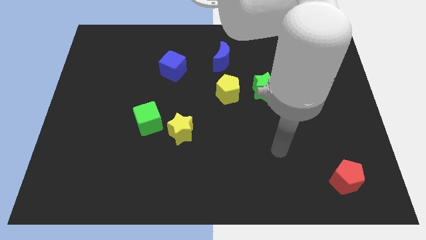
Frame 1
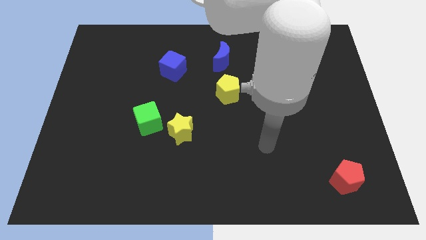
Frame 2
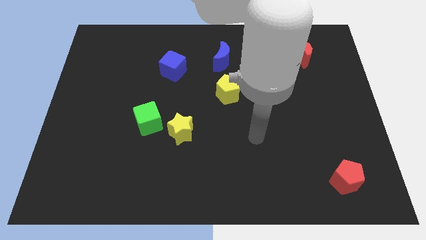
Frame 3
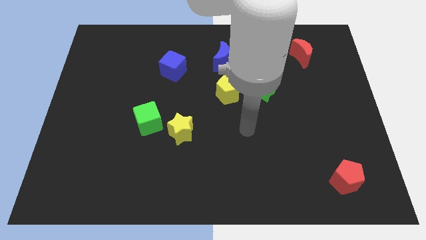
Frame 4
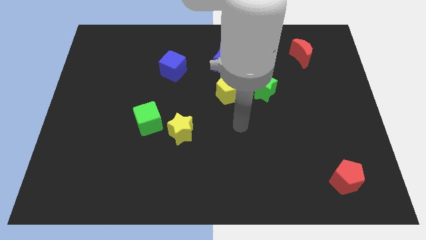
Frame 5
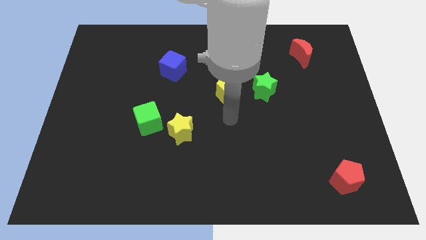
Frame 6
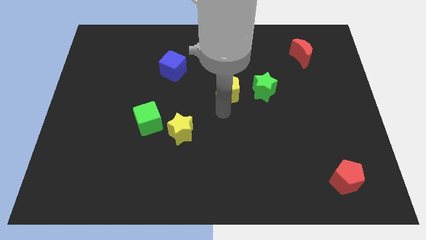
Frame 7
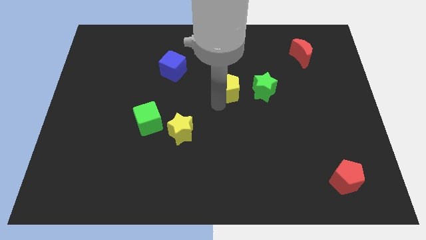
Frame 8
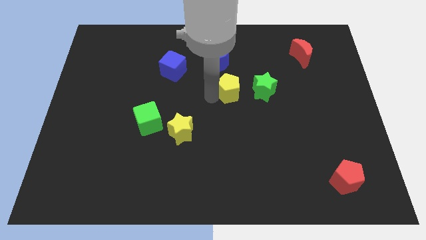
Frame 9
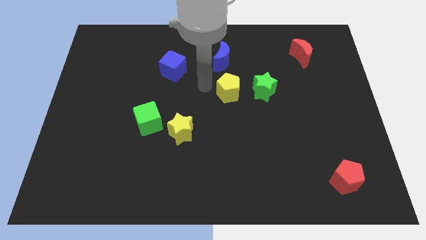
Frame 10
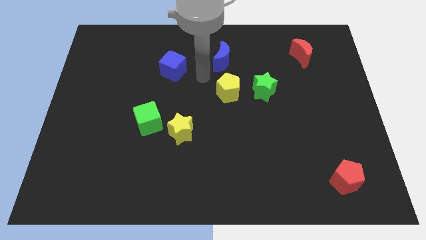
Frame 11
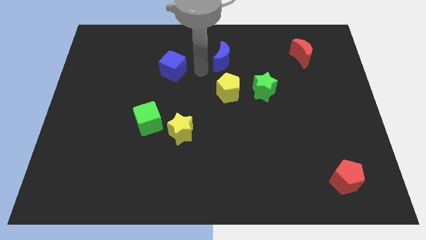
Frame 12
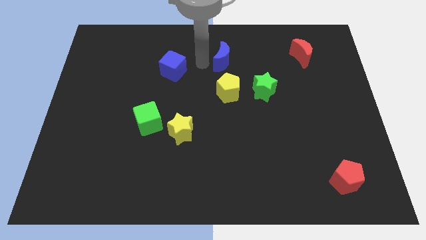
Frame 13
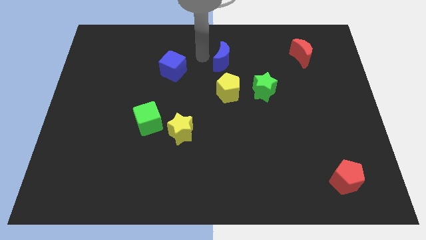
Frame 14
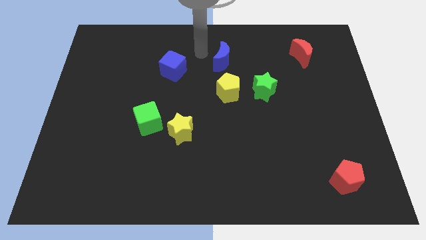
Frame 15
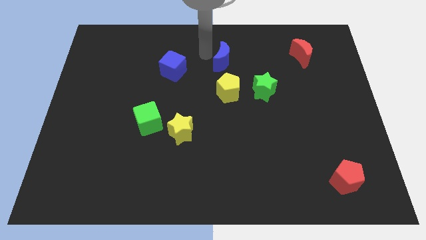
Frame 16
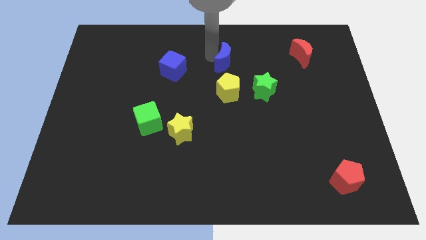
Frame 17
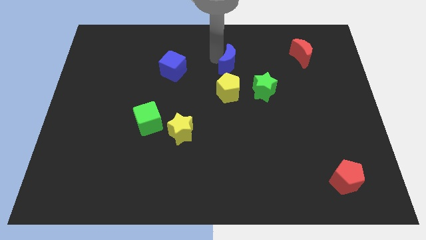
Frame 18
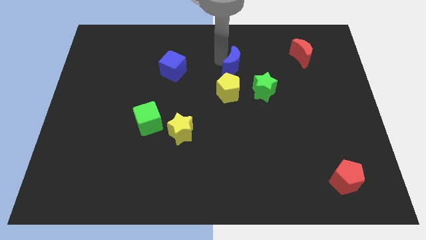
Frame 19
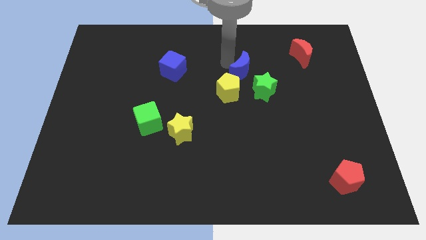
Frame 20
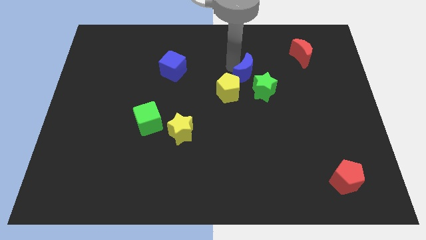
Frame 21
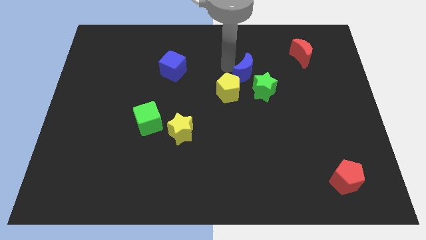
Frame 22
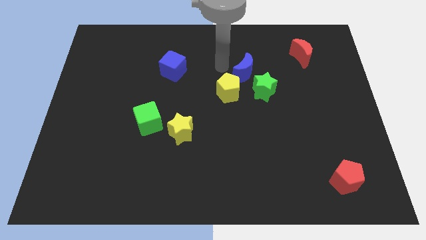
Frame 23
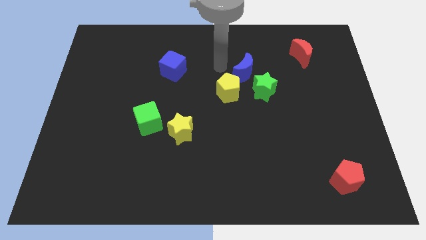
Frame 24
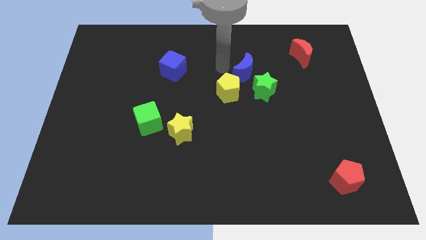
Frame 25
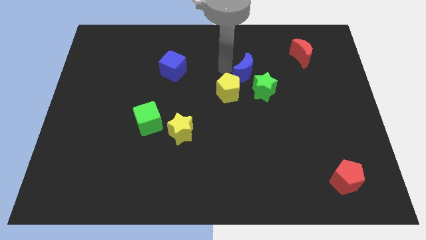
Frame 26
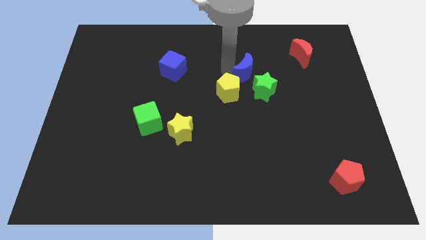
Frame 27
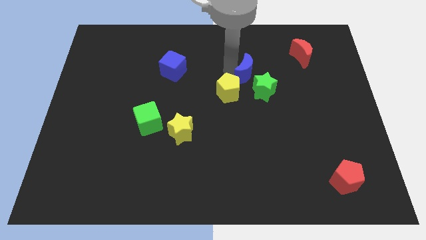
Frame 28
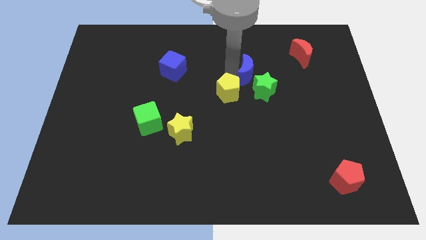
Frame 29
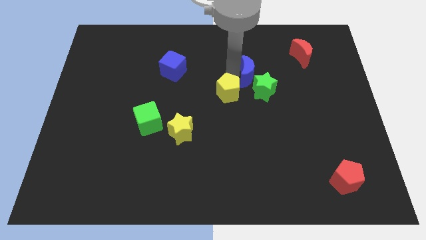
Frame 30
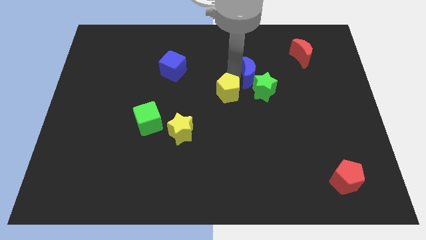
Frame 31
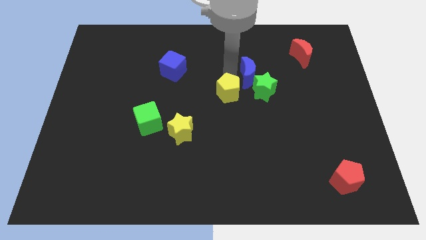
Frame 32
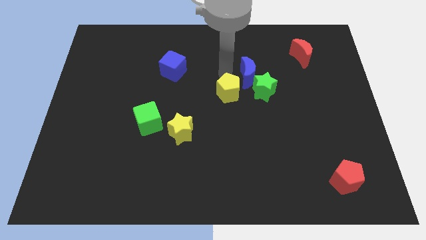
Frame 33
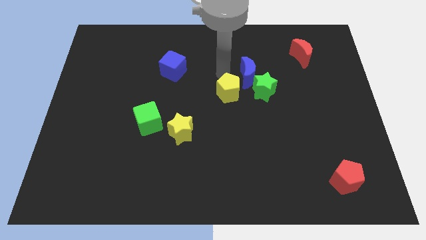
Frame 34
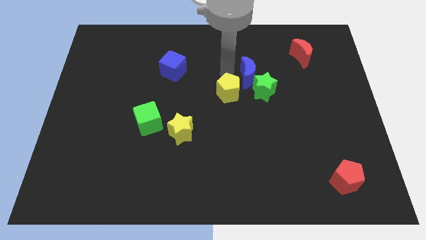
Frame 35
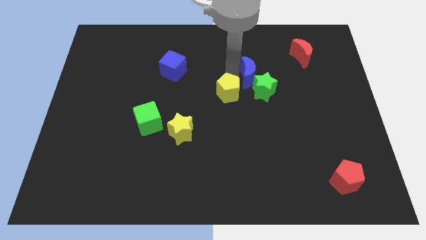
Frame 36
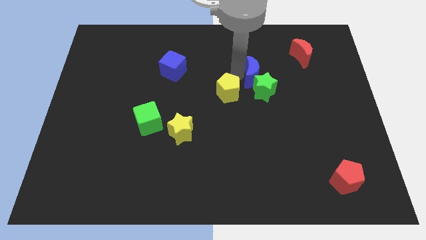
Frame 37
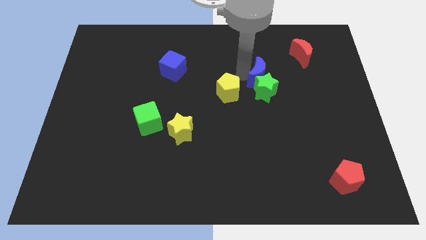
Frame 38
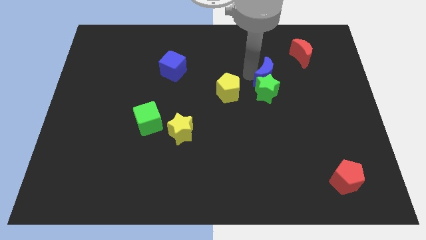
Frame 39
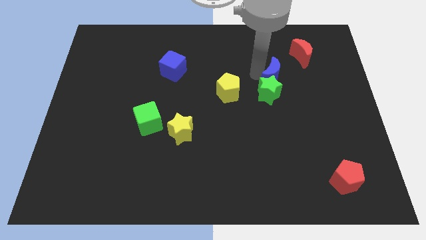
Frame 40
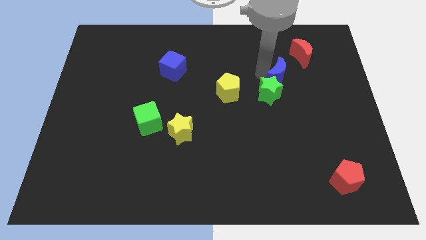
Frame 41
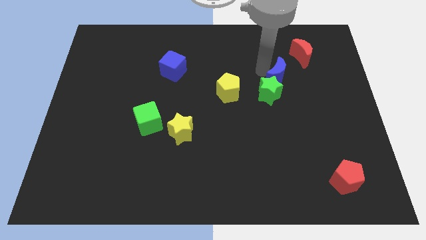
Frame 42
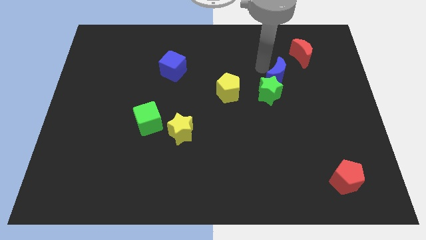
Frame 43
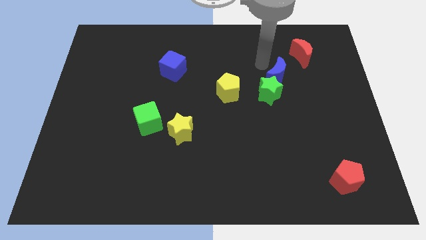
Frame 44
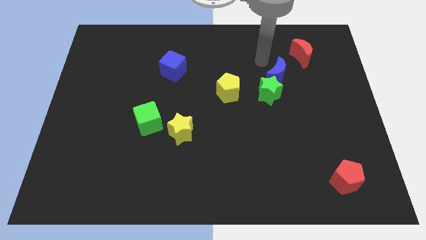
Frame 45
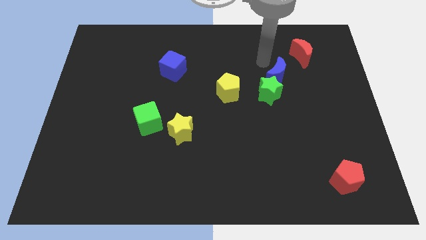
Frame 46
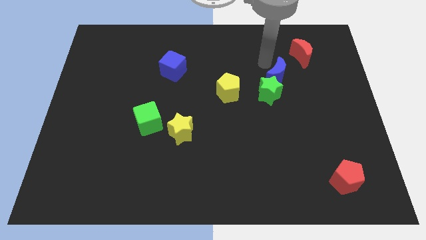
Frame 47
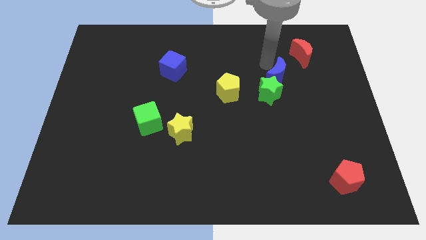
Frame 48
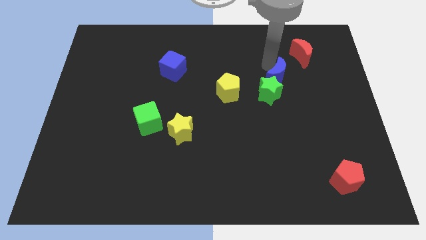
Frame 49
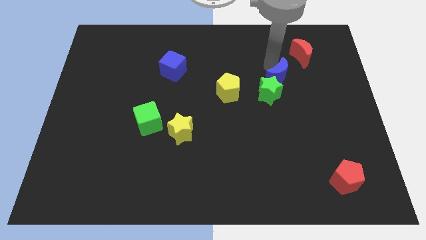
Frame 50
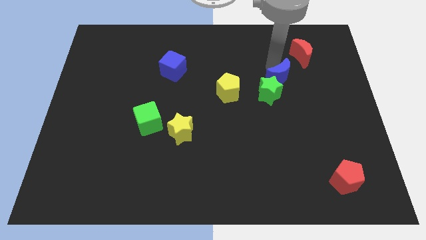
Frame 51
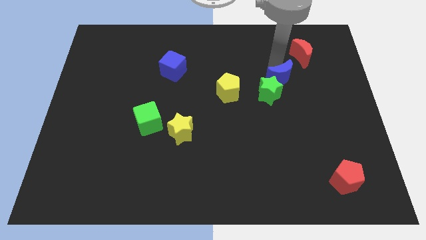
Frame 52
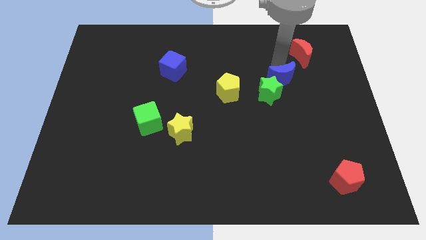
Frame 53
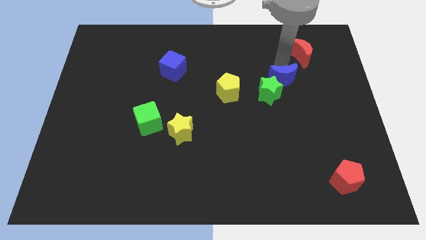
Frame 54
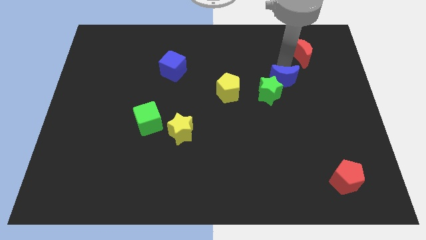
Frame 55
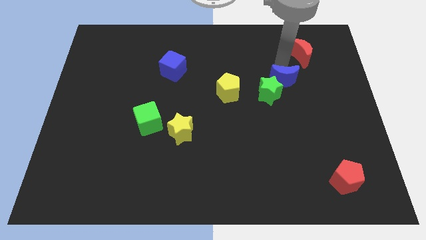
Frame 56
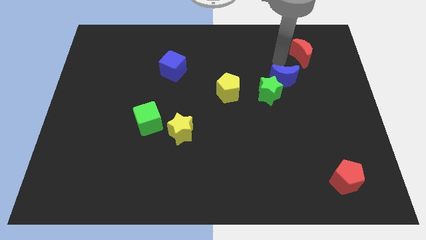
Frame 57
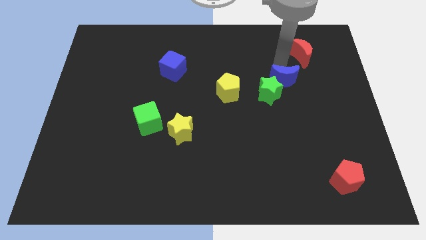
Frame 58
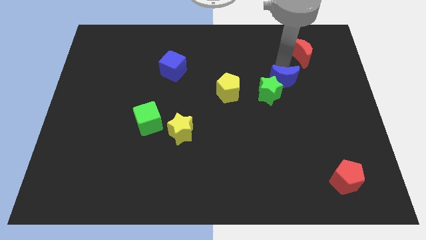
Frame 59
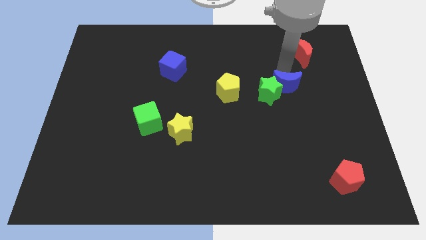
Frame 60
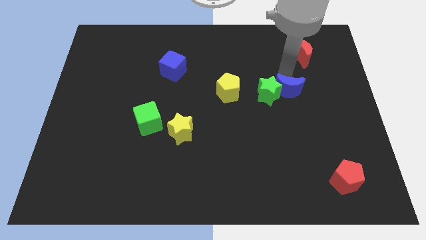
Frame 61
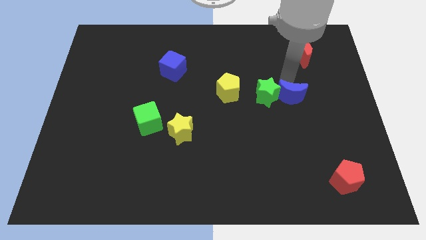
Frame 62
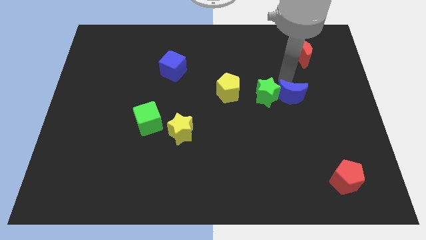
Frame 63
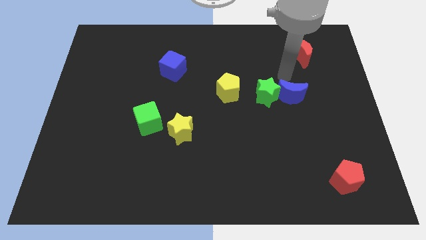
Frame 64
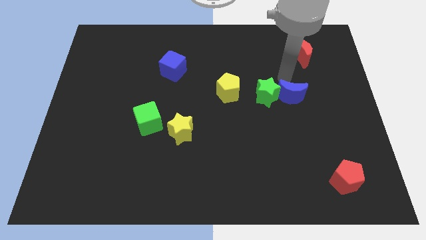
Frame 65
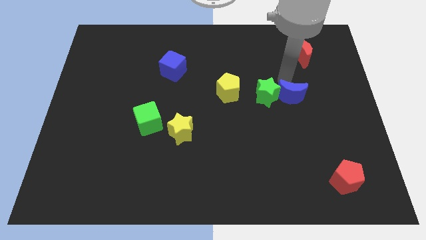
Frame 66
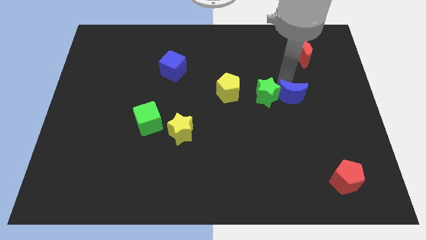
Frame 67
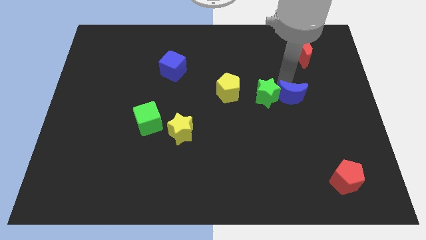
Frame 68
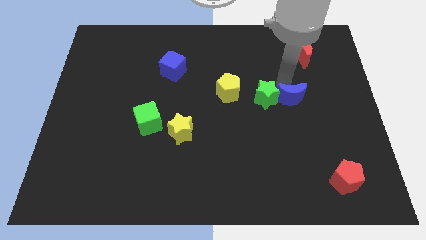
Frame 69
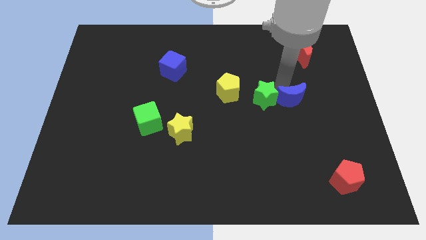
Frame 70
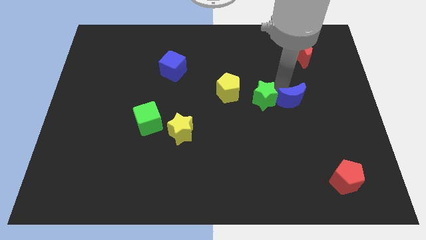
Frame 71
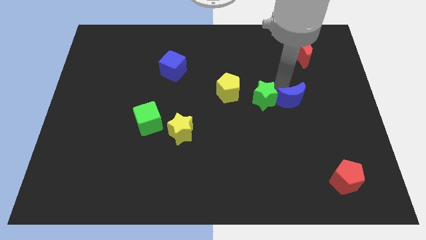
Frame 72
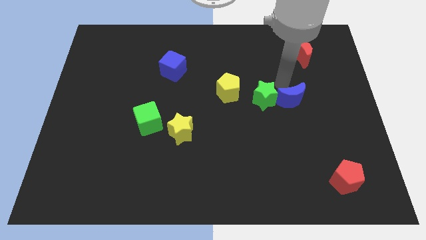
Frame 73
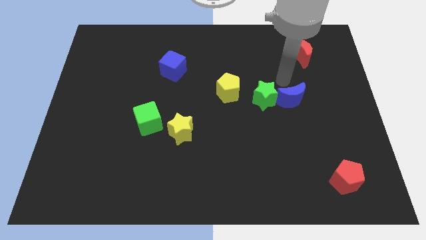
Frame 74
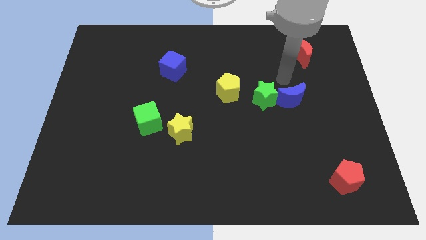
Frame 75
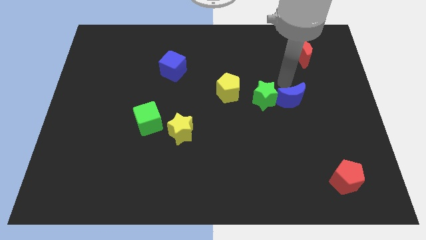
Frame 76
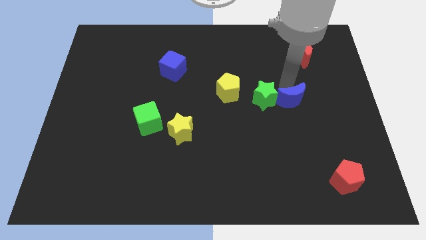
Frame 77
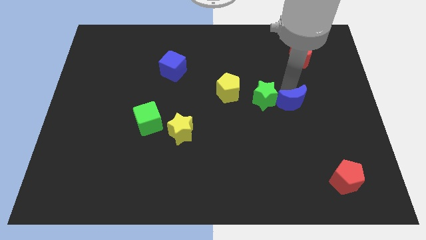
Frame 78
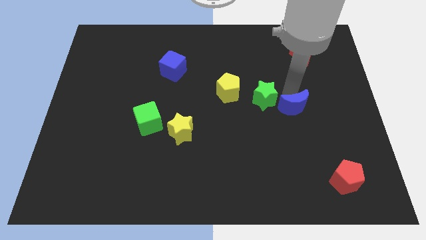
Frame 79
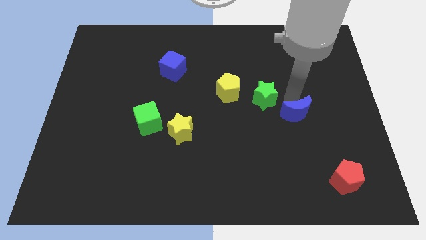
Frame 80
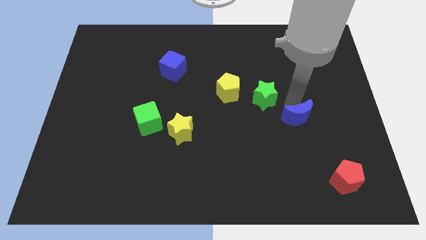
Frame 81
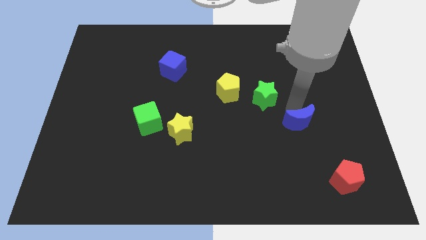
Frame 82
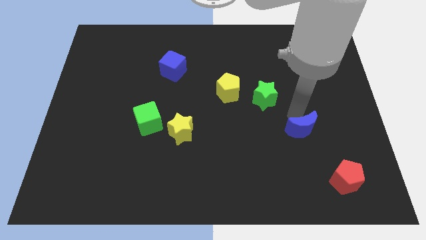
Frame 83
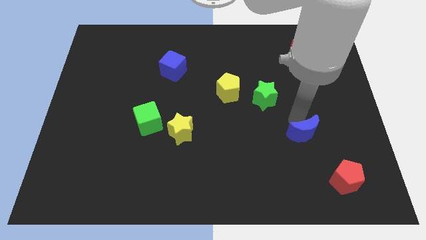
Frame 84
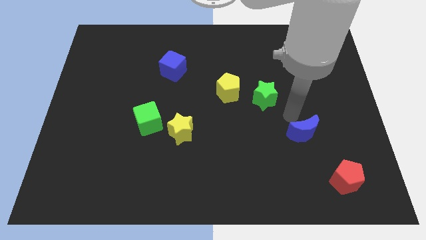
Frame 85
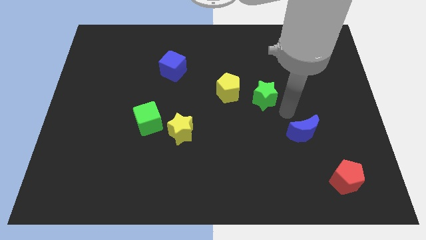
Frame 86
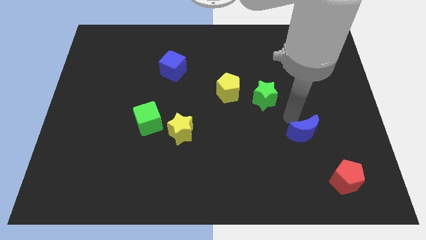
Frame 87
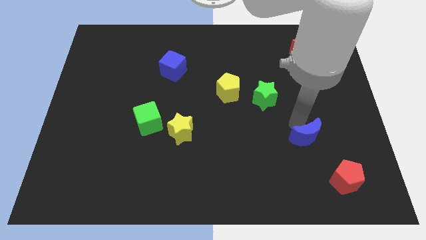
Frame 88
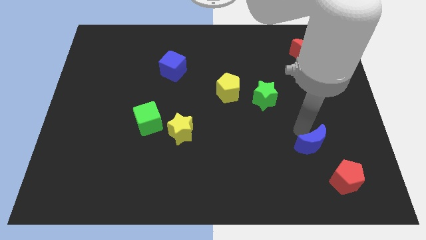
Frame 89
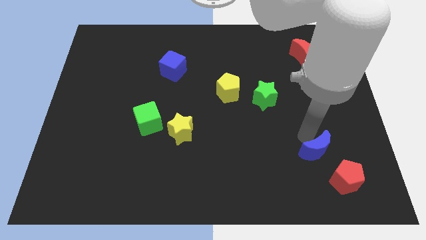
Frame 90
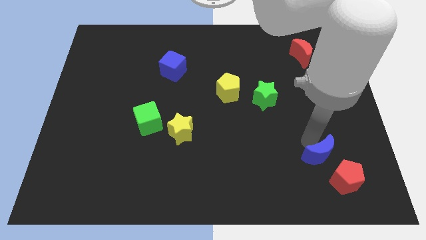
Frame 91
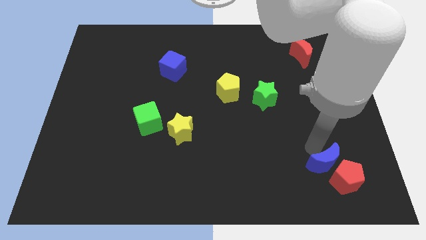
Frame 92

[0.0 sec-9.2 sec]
push the blue moon close to the red pentagon
